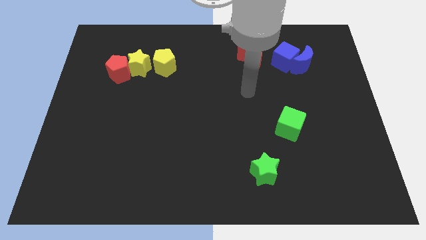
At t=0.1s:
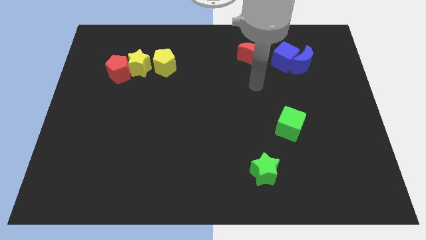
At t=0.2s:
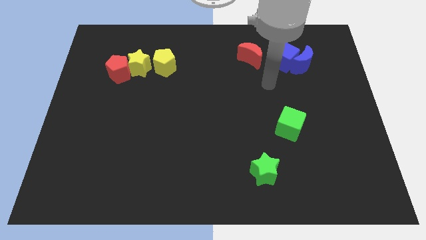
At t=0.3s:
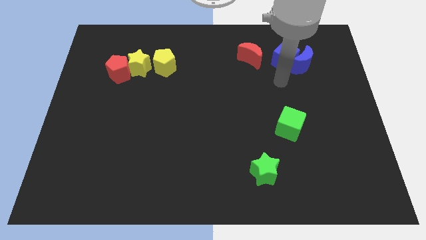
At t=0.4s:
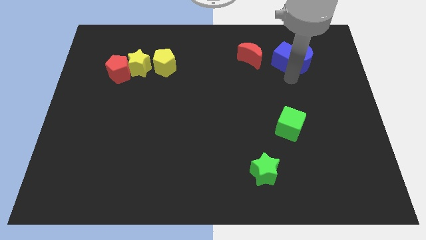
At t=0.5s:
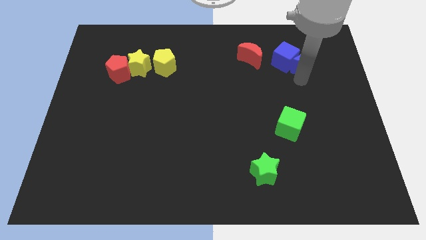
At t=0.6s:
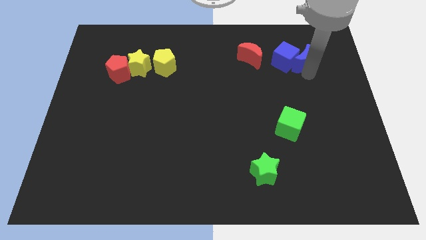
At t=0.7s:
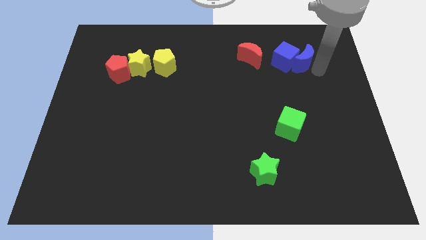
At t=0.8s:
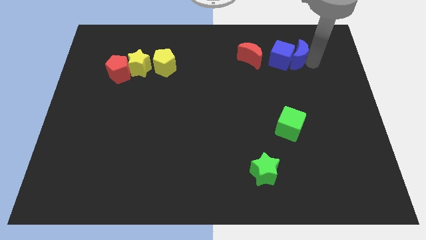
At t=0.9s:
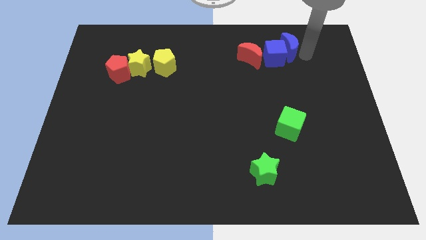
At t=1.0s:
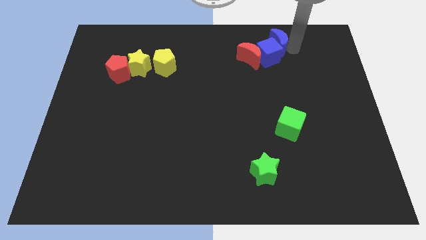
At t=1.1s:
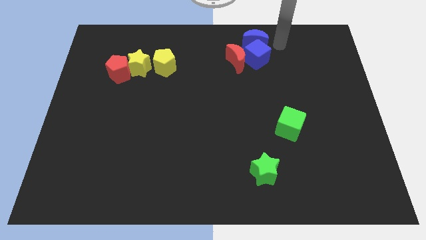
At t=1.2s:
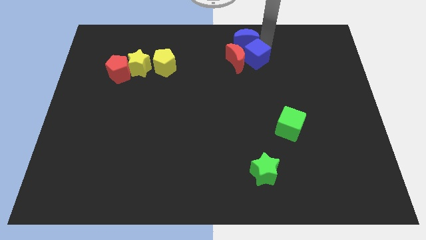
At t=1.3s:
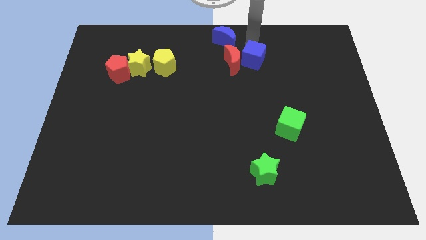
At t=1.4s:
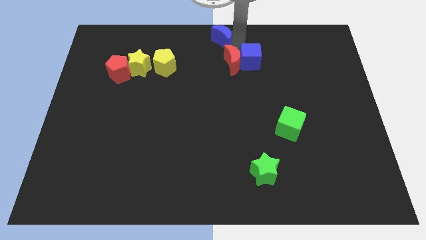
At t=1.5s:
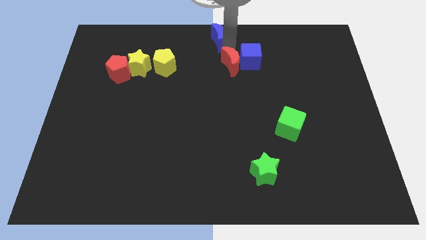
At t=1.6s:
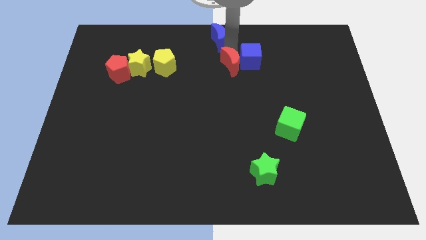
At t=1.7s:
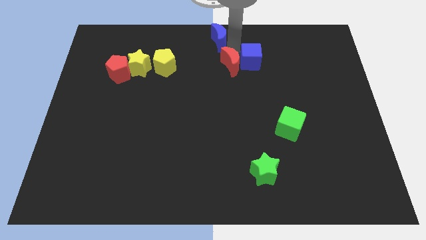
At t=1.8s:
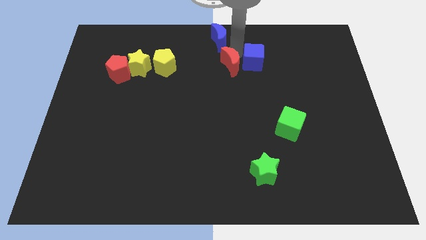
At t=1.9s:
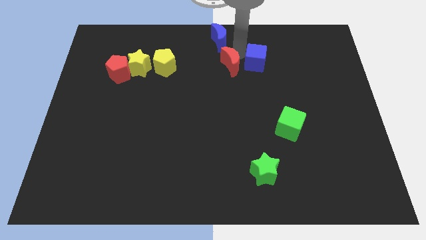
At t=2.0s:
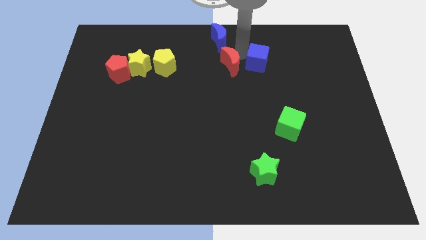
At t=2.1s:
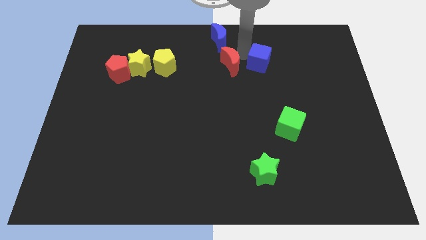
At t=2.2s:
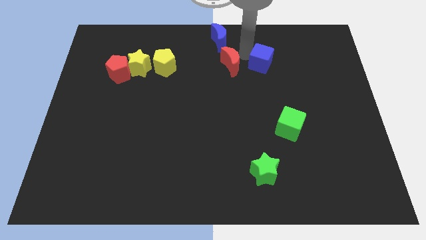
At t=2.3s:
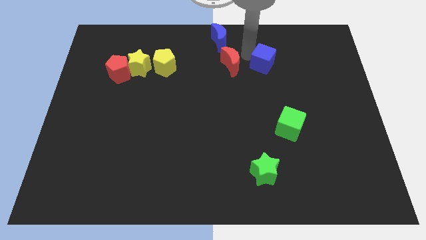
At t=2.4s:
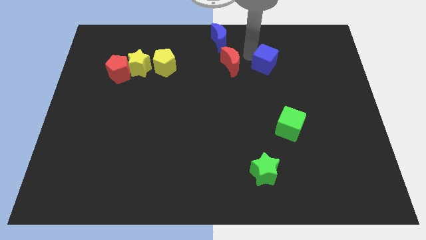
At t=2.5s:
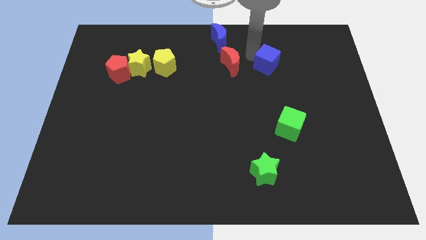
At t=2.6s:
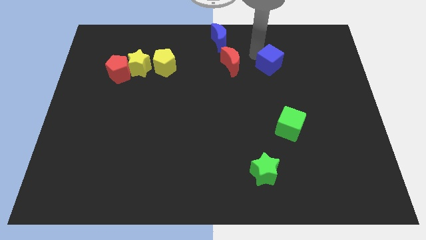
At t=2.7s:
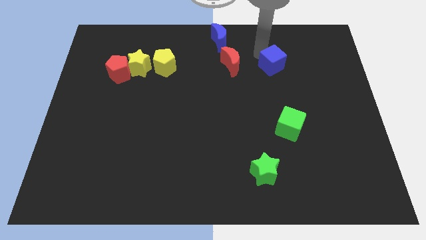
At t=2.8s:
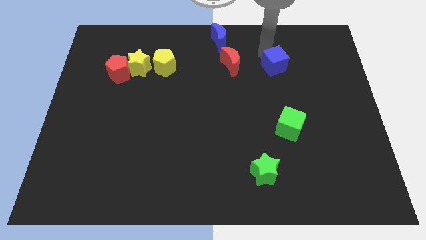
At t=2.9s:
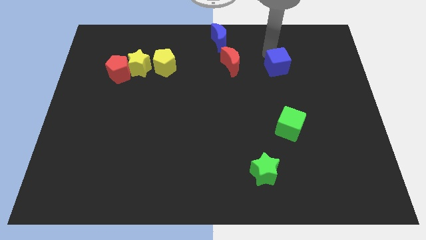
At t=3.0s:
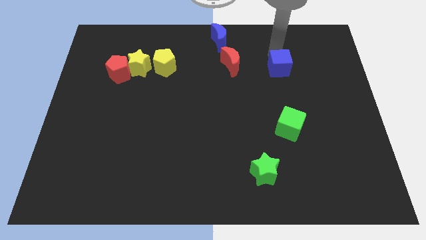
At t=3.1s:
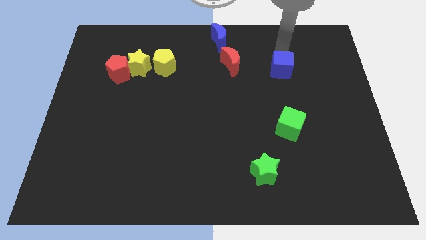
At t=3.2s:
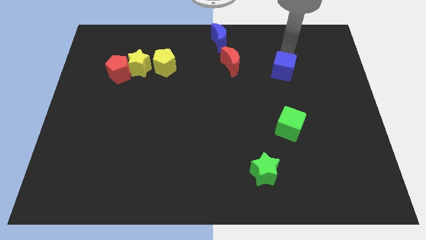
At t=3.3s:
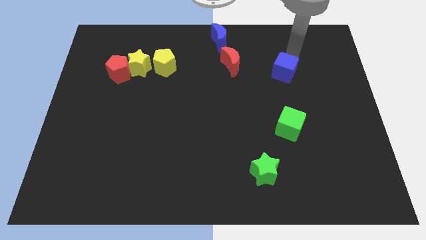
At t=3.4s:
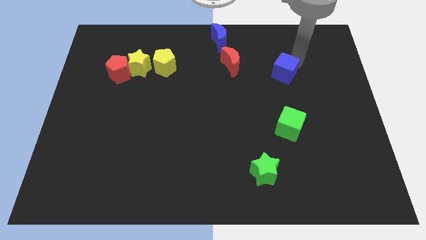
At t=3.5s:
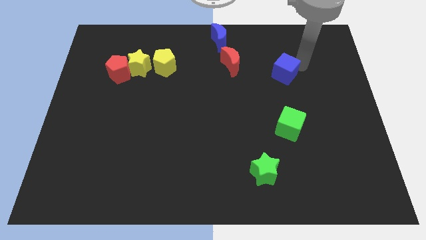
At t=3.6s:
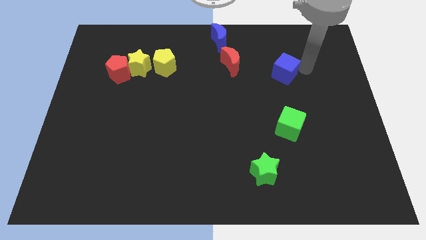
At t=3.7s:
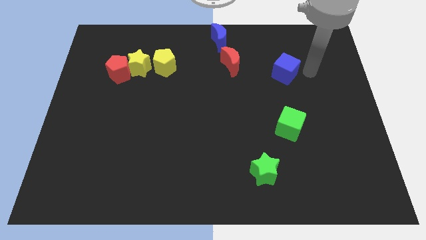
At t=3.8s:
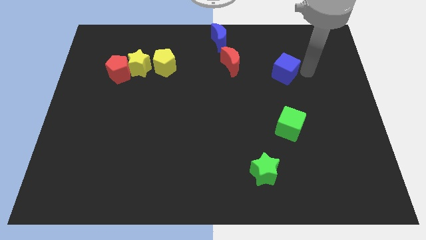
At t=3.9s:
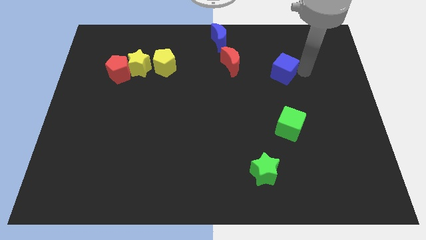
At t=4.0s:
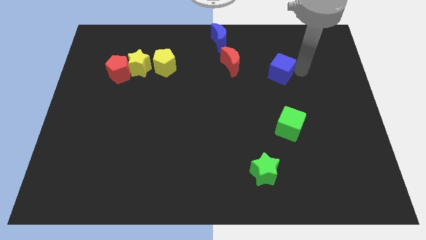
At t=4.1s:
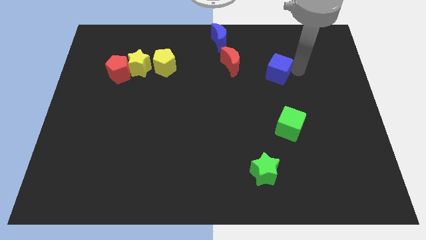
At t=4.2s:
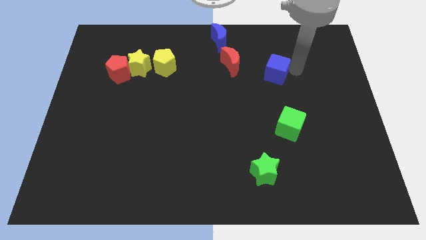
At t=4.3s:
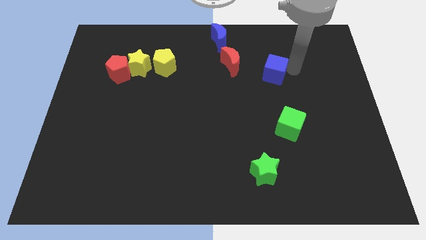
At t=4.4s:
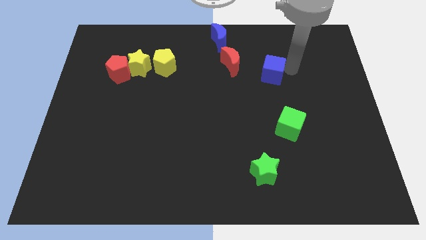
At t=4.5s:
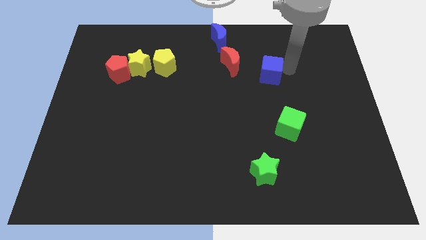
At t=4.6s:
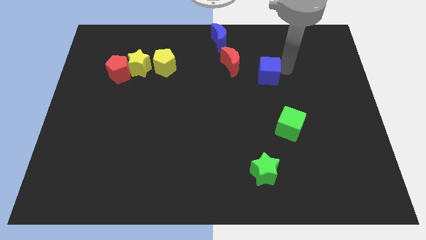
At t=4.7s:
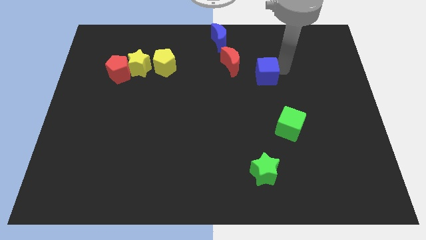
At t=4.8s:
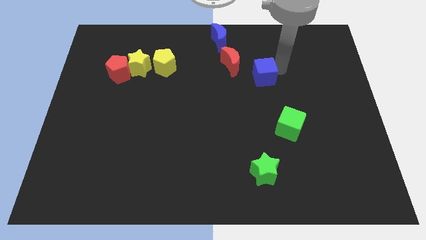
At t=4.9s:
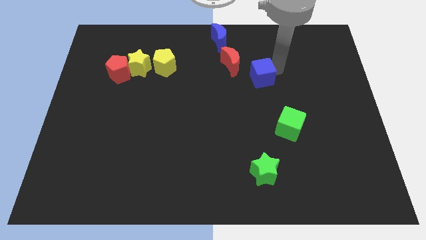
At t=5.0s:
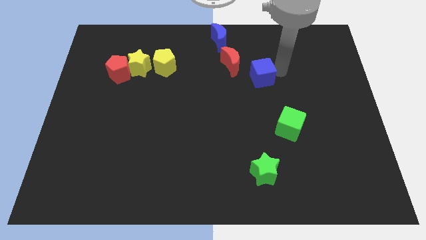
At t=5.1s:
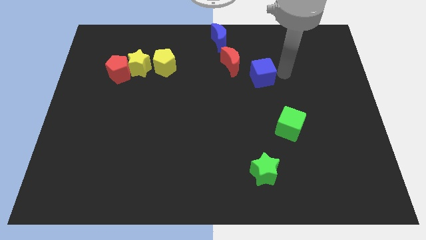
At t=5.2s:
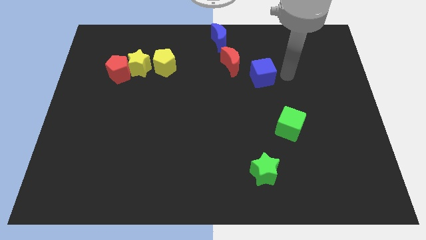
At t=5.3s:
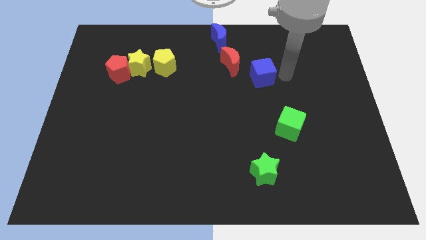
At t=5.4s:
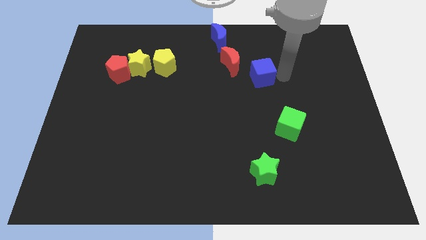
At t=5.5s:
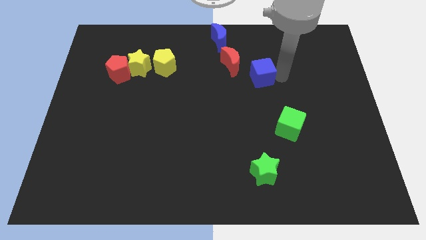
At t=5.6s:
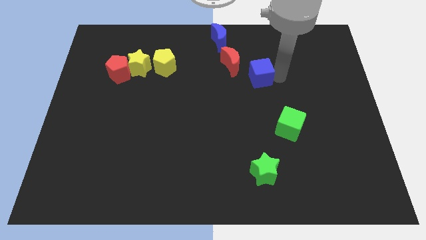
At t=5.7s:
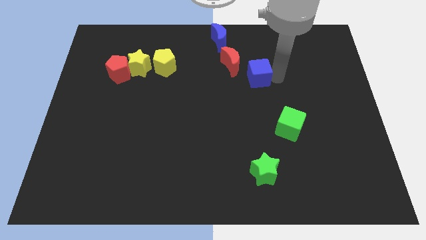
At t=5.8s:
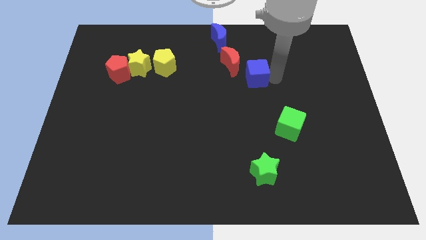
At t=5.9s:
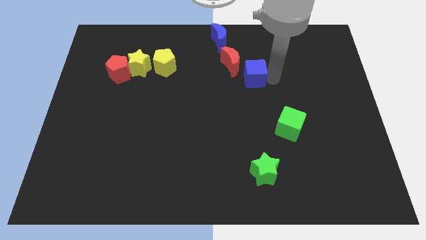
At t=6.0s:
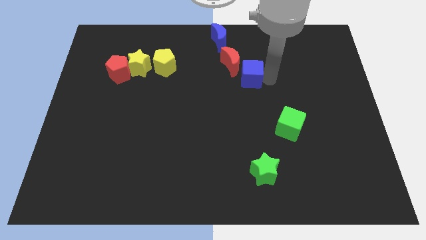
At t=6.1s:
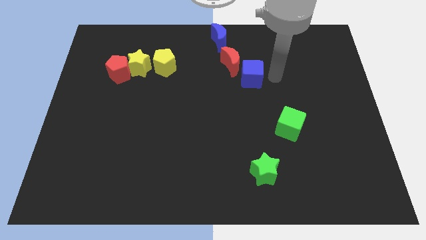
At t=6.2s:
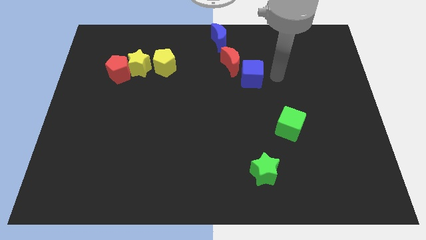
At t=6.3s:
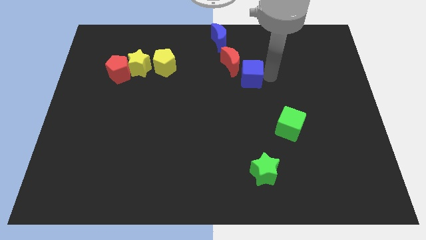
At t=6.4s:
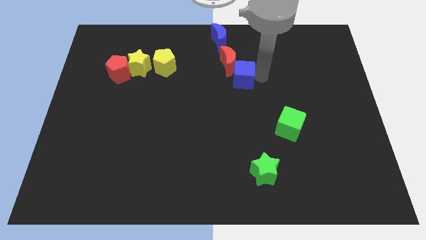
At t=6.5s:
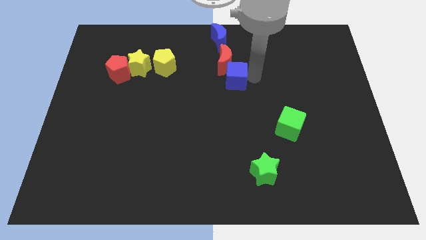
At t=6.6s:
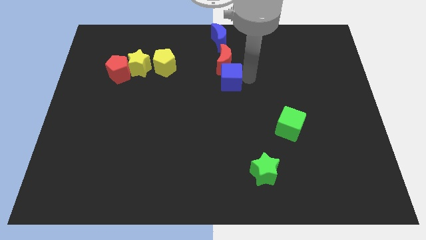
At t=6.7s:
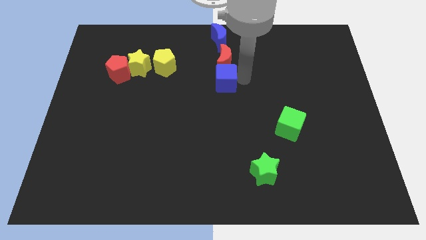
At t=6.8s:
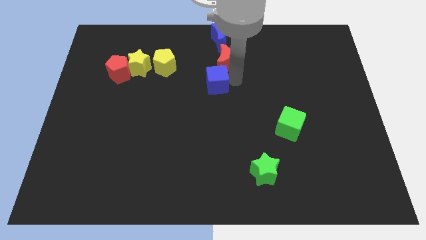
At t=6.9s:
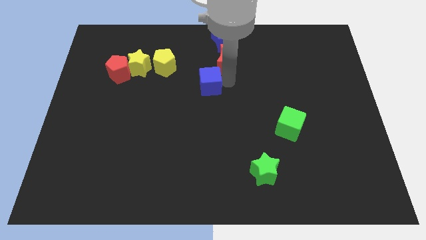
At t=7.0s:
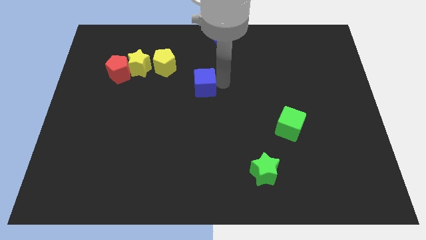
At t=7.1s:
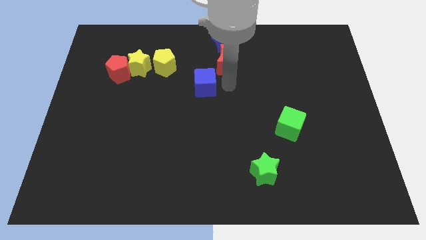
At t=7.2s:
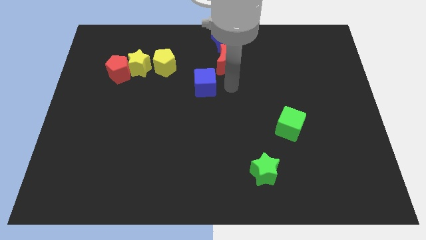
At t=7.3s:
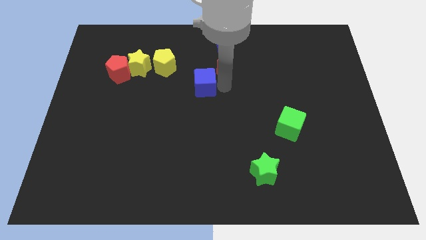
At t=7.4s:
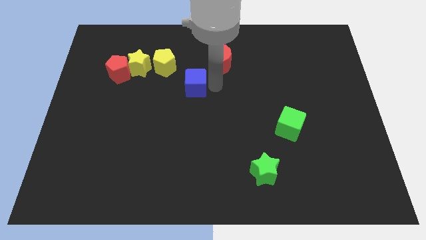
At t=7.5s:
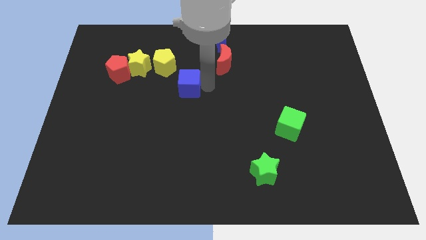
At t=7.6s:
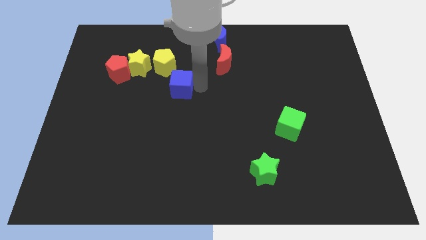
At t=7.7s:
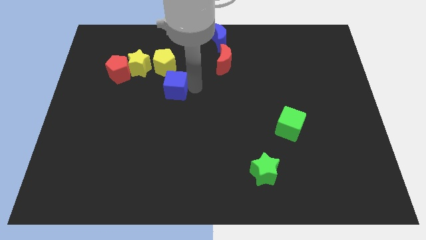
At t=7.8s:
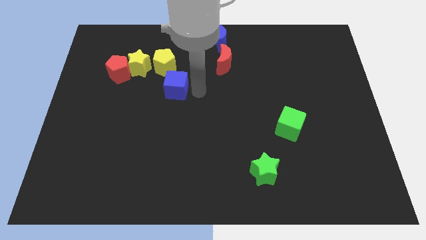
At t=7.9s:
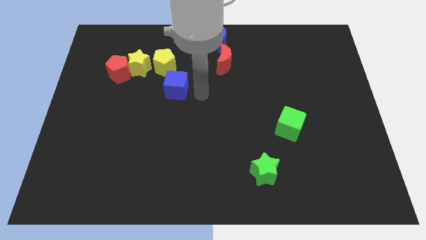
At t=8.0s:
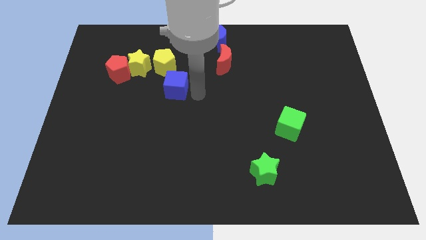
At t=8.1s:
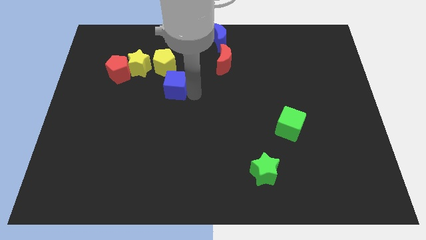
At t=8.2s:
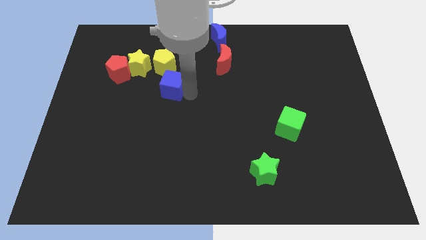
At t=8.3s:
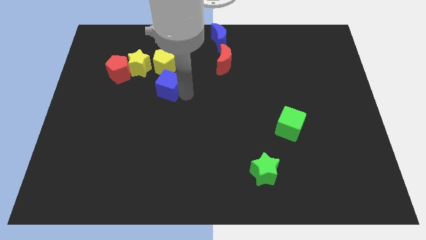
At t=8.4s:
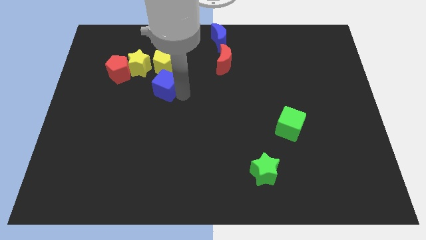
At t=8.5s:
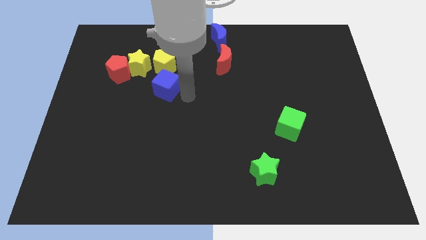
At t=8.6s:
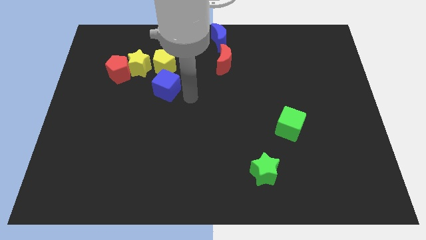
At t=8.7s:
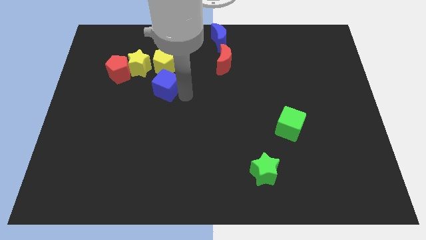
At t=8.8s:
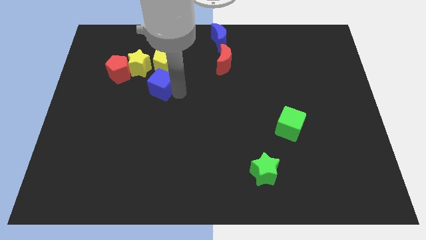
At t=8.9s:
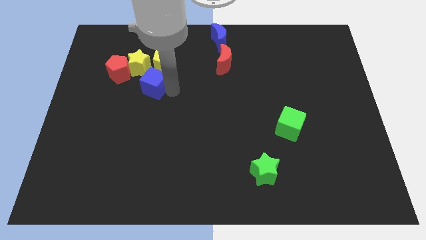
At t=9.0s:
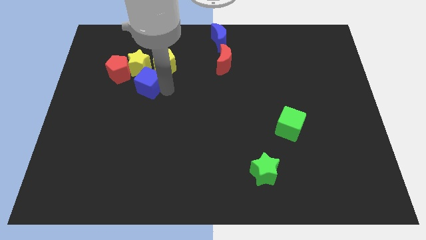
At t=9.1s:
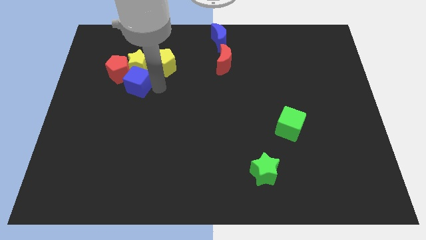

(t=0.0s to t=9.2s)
slide the blue cube to the bottom left of the yellow star
